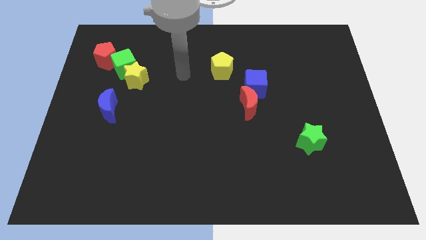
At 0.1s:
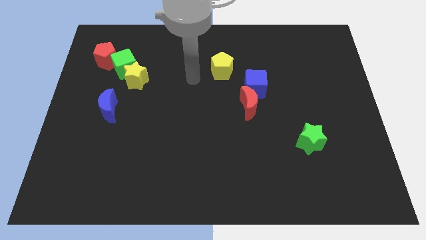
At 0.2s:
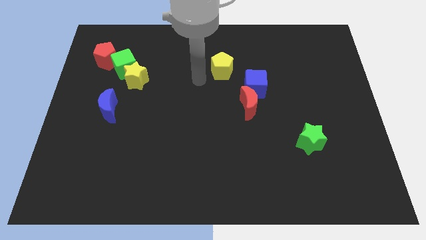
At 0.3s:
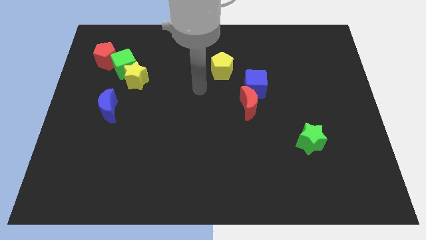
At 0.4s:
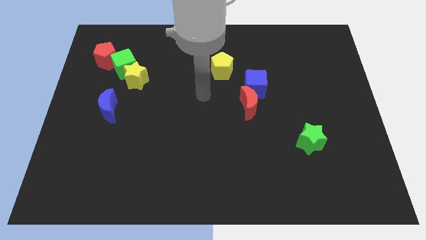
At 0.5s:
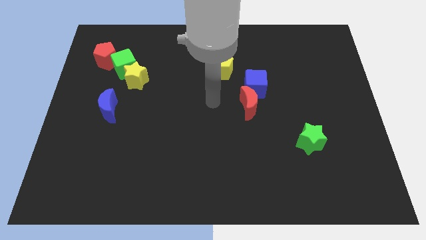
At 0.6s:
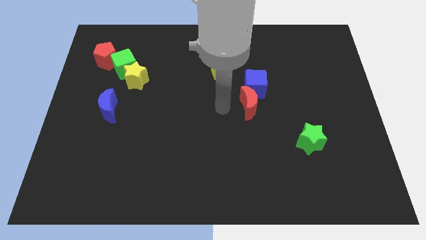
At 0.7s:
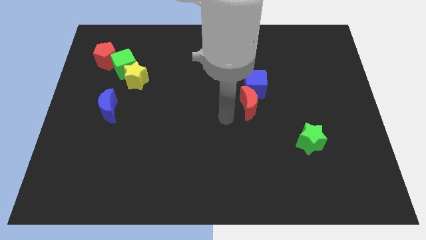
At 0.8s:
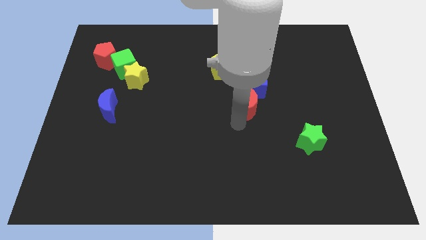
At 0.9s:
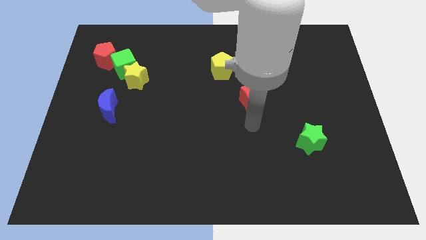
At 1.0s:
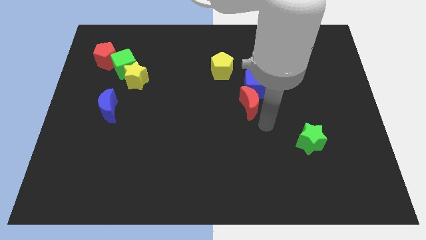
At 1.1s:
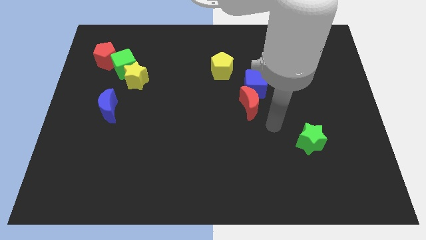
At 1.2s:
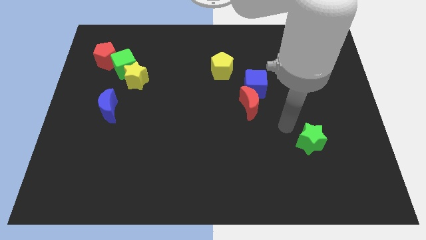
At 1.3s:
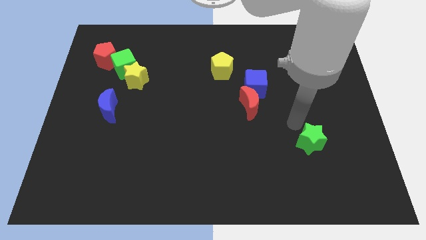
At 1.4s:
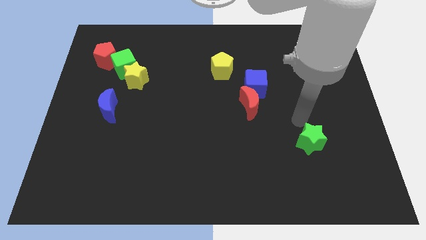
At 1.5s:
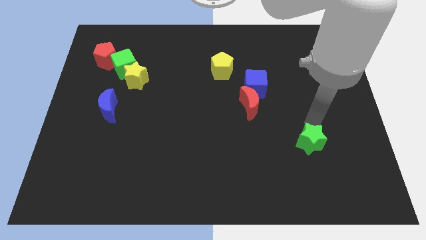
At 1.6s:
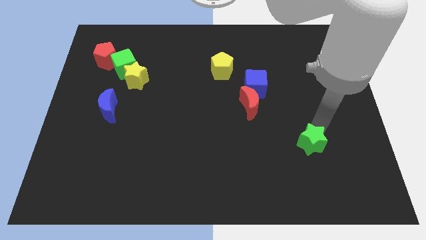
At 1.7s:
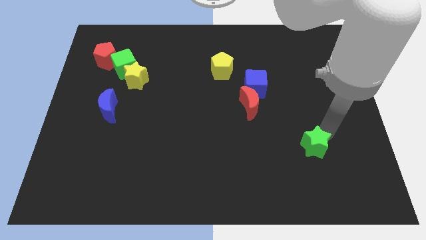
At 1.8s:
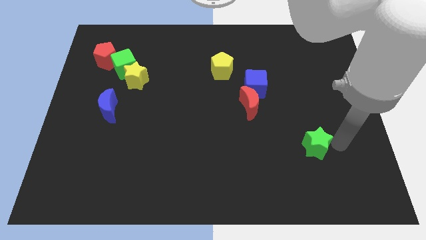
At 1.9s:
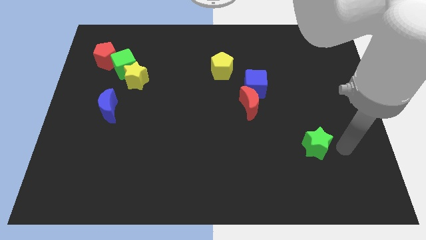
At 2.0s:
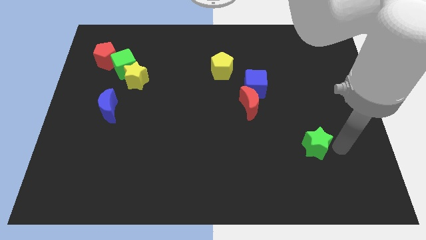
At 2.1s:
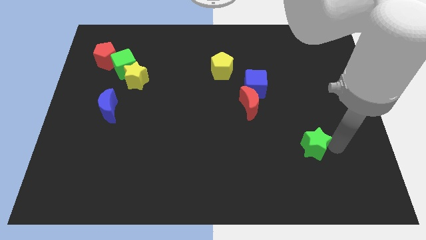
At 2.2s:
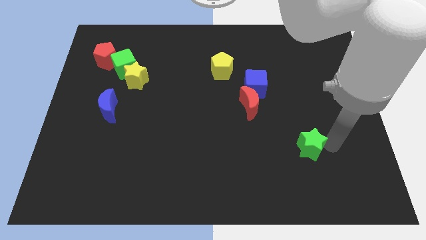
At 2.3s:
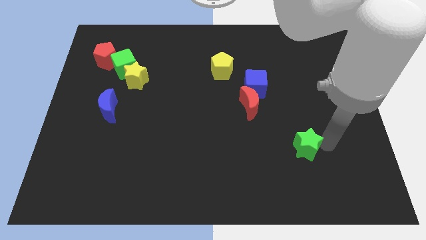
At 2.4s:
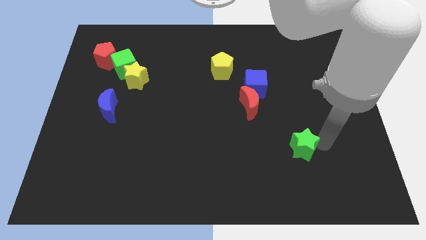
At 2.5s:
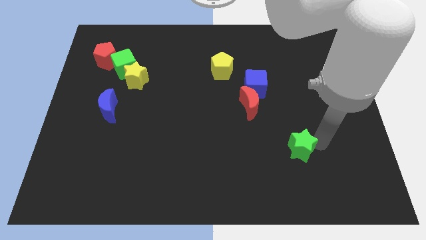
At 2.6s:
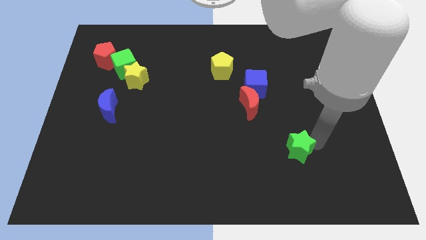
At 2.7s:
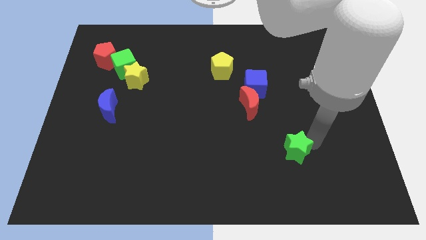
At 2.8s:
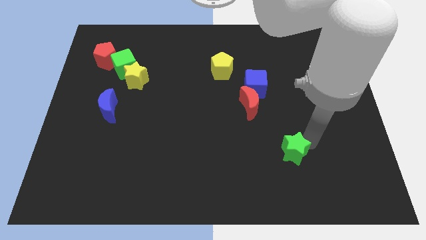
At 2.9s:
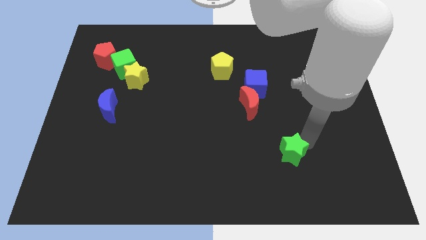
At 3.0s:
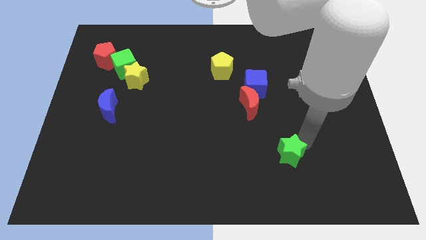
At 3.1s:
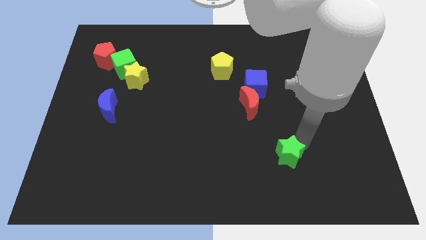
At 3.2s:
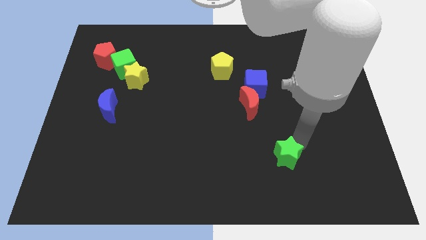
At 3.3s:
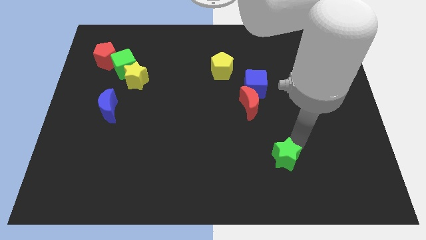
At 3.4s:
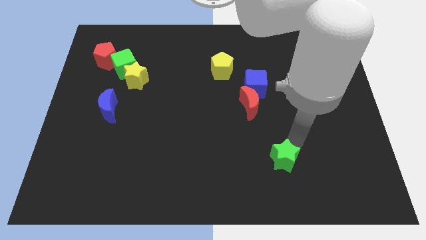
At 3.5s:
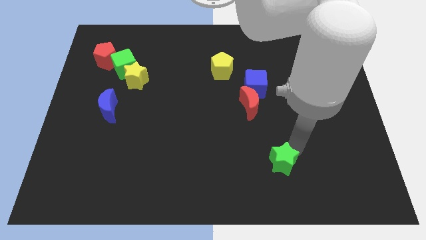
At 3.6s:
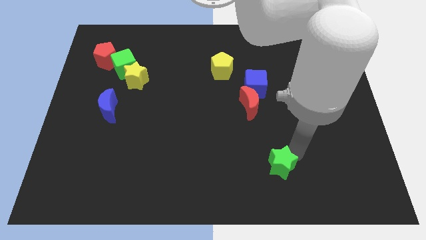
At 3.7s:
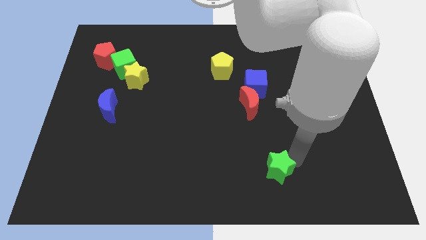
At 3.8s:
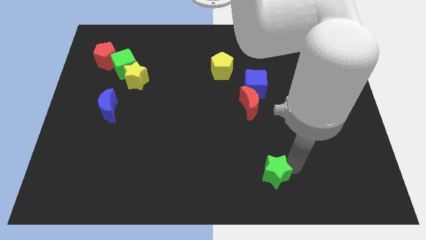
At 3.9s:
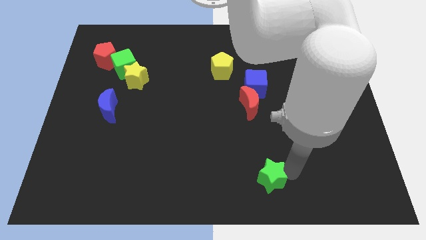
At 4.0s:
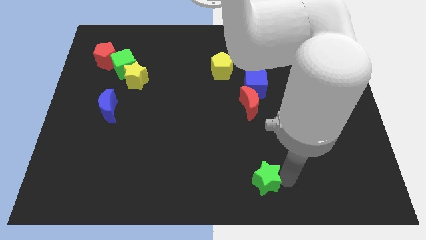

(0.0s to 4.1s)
slide the green star left a little bit

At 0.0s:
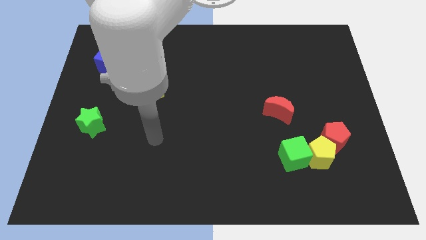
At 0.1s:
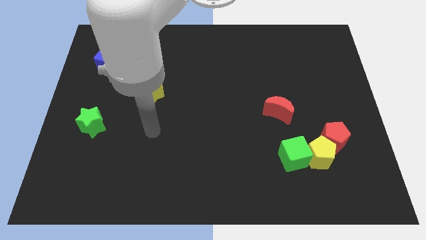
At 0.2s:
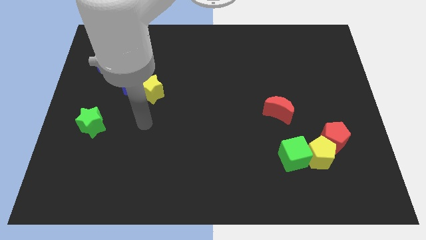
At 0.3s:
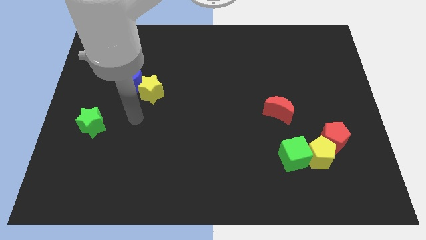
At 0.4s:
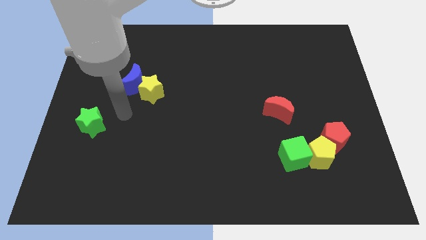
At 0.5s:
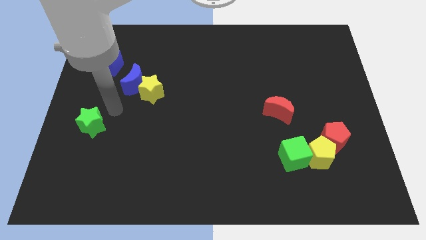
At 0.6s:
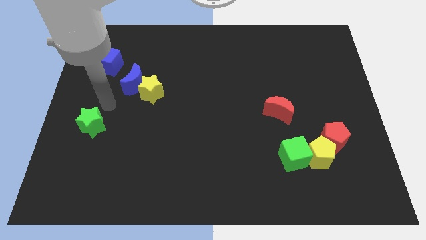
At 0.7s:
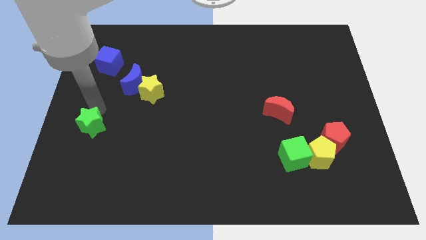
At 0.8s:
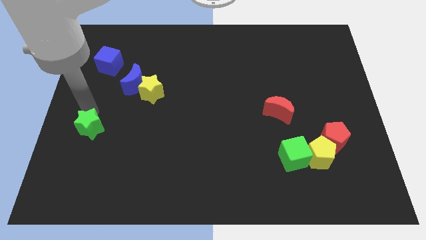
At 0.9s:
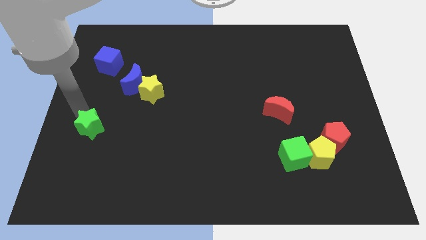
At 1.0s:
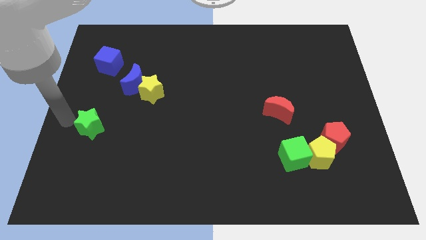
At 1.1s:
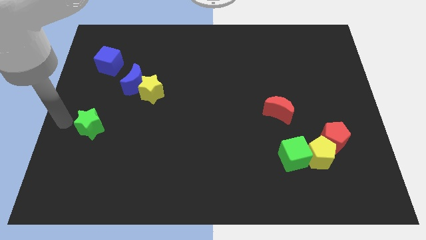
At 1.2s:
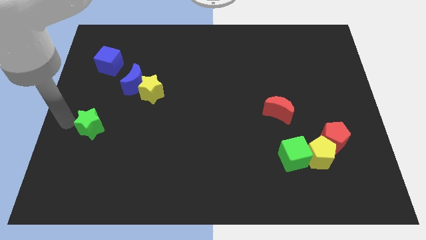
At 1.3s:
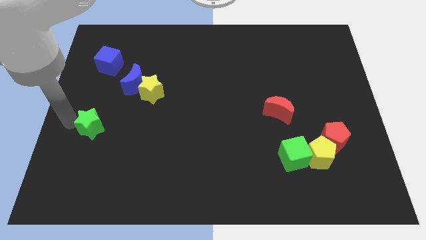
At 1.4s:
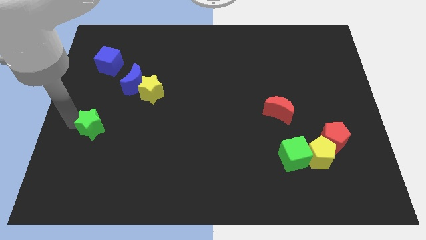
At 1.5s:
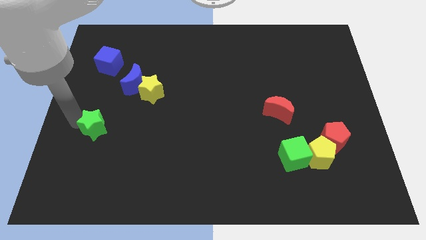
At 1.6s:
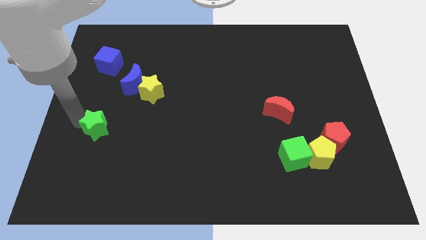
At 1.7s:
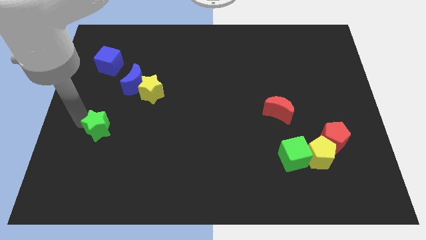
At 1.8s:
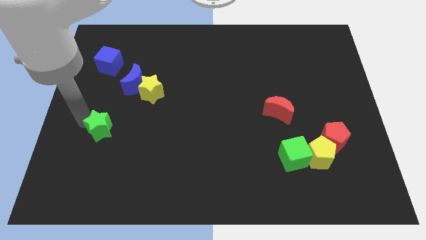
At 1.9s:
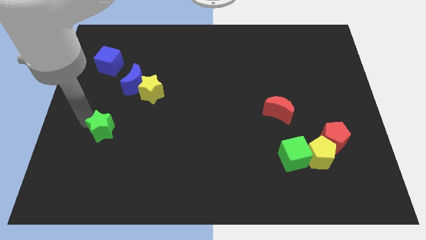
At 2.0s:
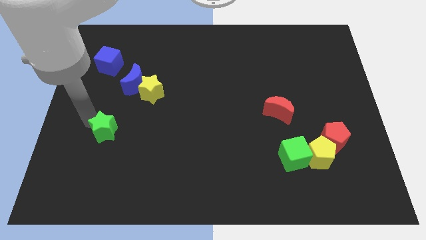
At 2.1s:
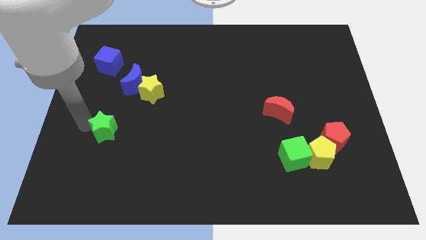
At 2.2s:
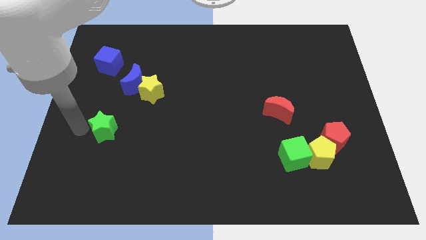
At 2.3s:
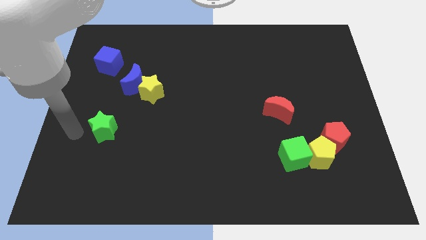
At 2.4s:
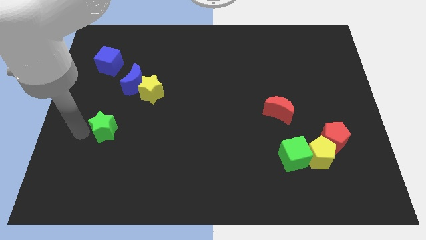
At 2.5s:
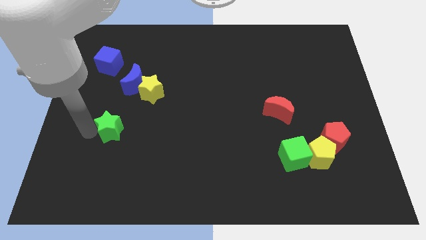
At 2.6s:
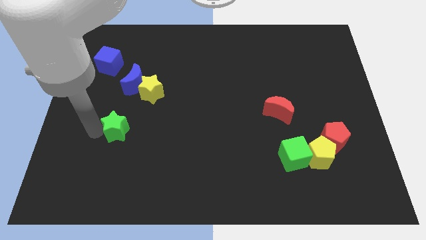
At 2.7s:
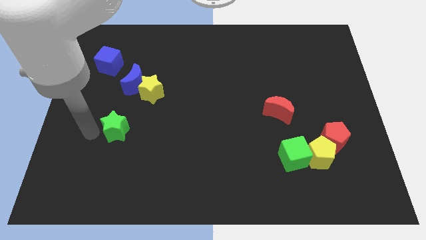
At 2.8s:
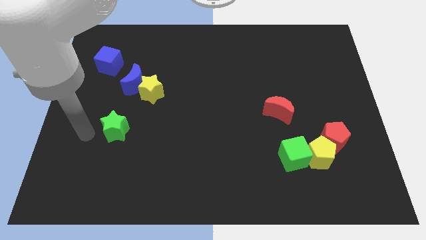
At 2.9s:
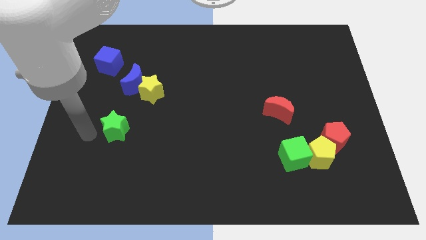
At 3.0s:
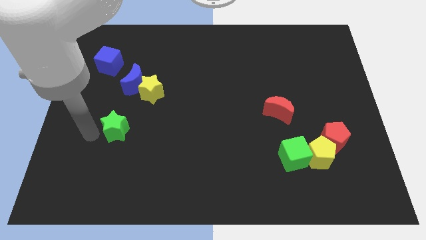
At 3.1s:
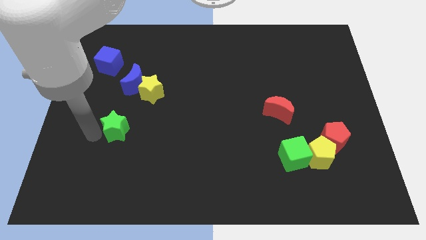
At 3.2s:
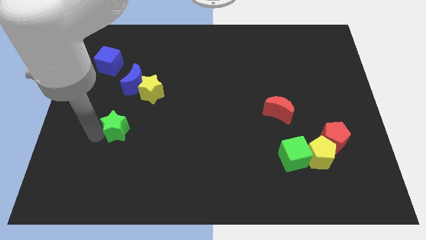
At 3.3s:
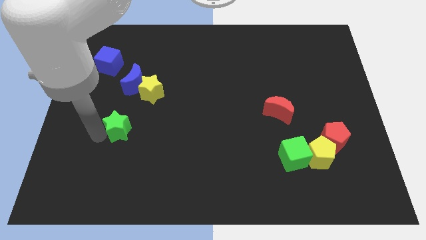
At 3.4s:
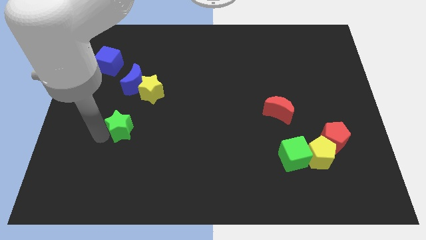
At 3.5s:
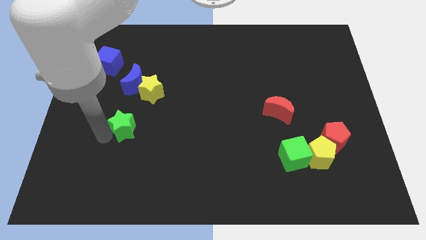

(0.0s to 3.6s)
move the green star to the right a little bit

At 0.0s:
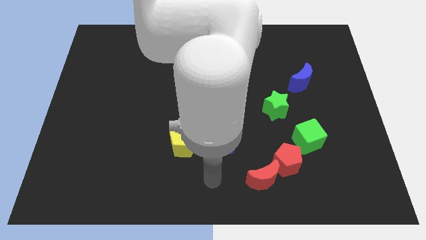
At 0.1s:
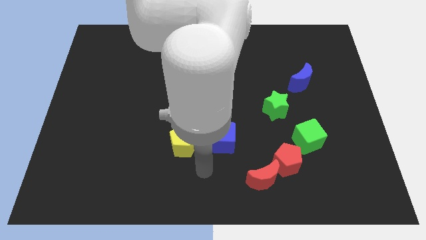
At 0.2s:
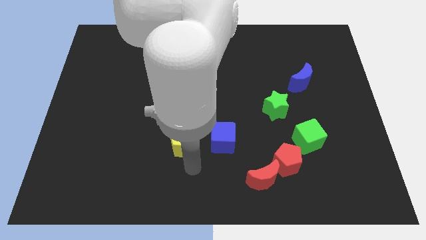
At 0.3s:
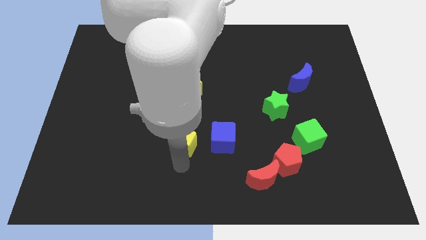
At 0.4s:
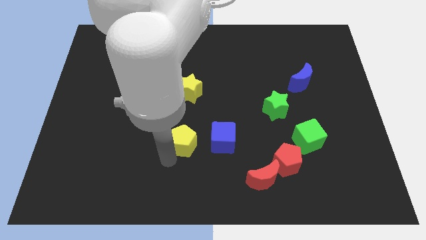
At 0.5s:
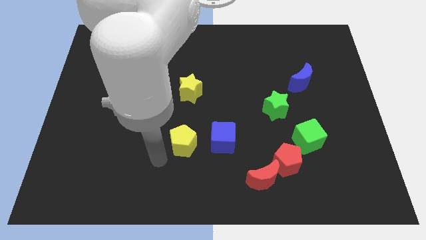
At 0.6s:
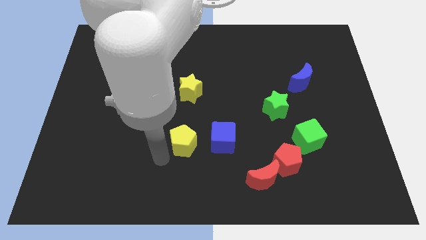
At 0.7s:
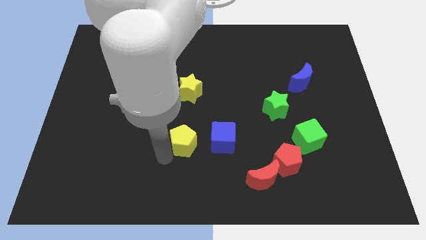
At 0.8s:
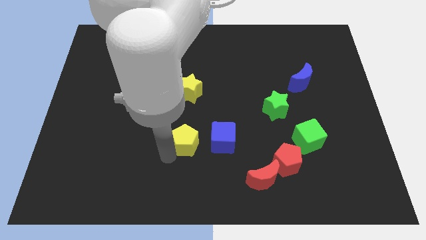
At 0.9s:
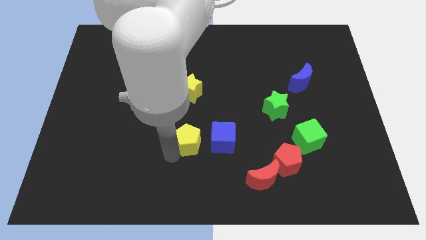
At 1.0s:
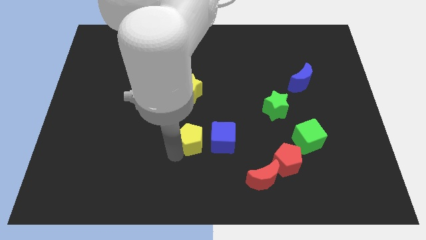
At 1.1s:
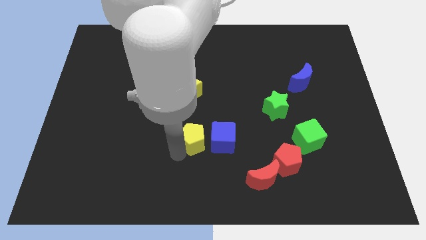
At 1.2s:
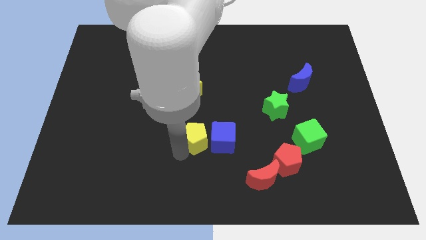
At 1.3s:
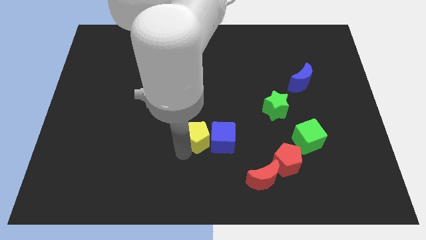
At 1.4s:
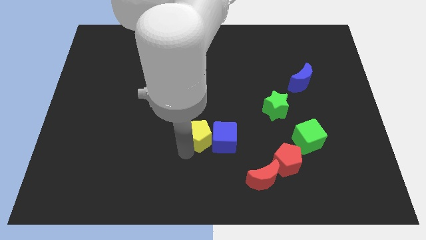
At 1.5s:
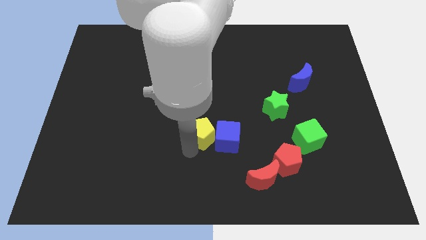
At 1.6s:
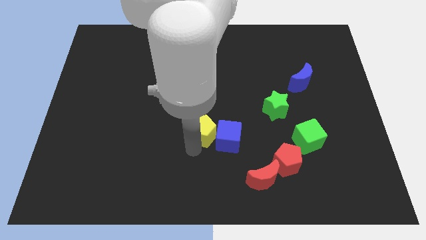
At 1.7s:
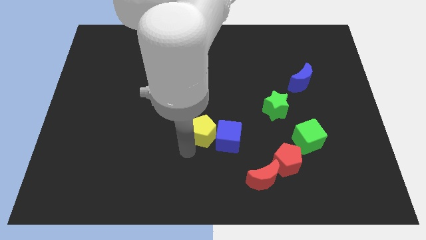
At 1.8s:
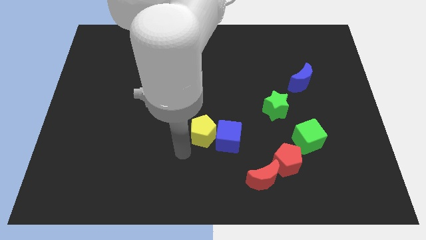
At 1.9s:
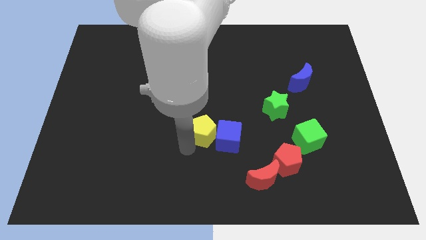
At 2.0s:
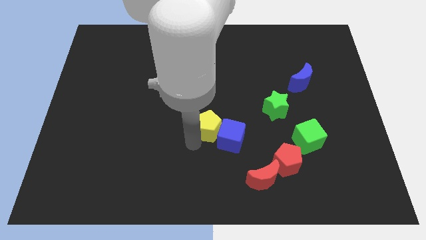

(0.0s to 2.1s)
push the yellow pentagon diagonally upwards and right a little
